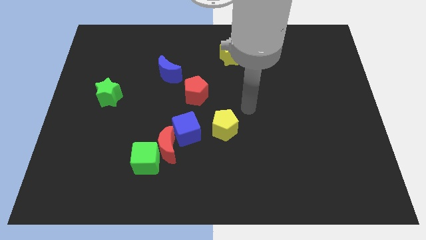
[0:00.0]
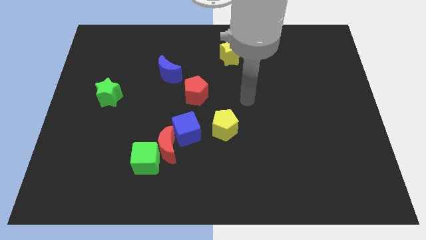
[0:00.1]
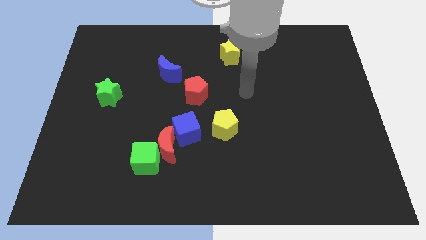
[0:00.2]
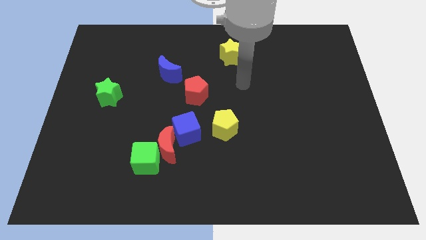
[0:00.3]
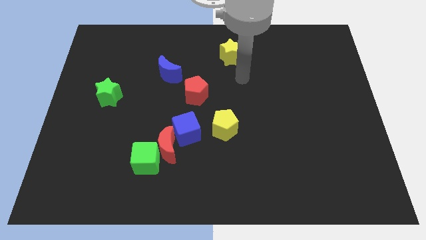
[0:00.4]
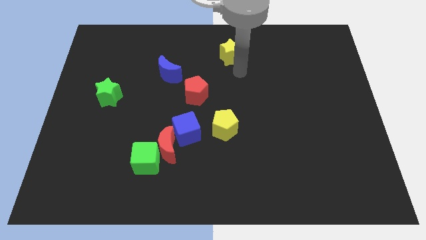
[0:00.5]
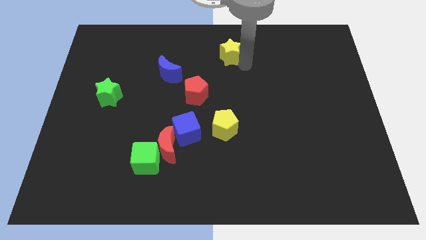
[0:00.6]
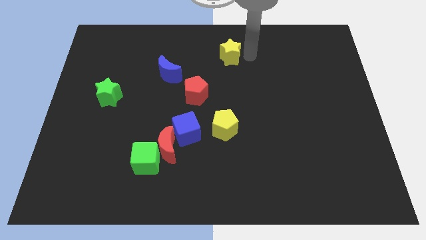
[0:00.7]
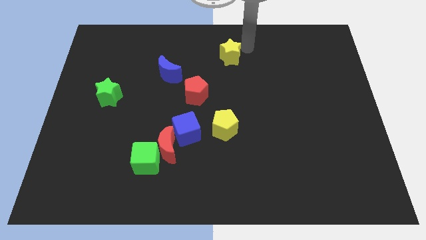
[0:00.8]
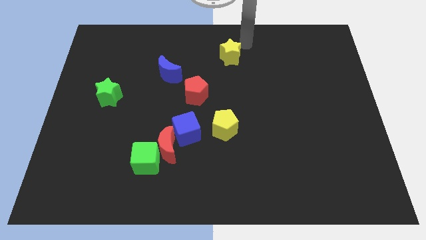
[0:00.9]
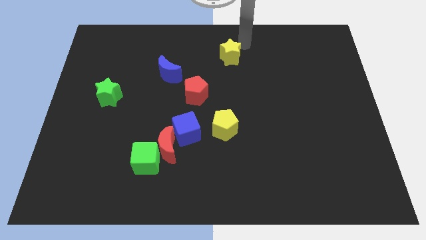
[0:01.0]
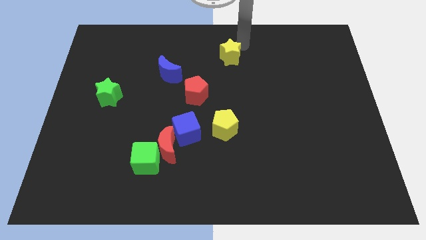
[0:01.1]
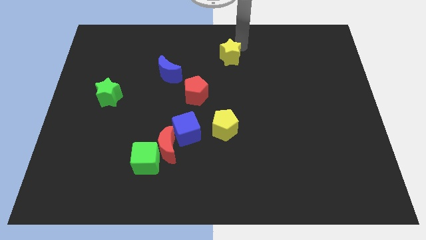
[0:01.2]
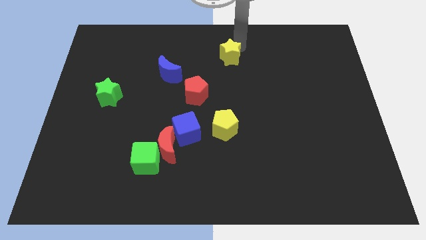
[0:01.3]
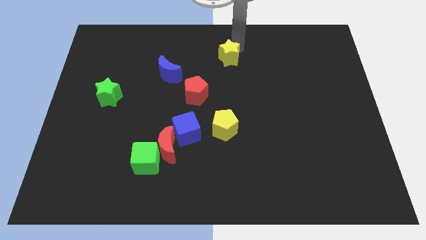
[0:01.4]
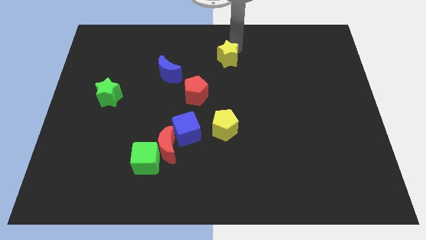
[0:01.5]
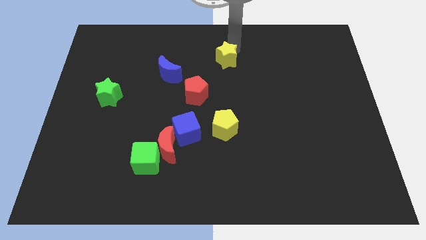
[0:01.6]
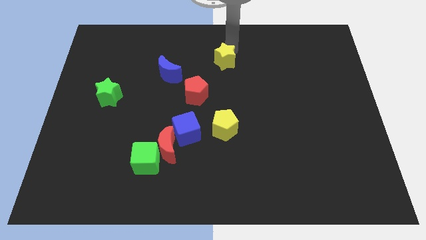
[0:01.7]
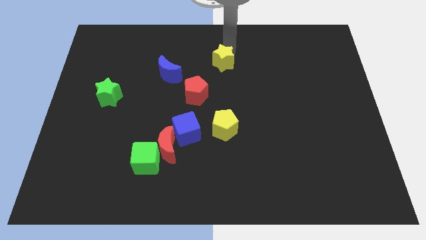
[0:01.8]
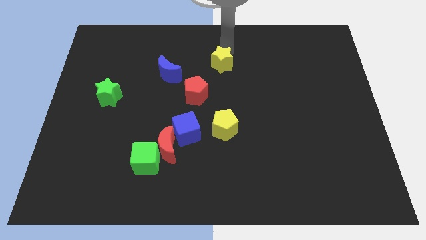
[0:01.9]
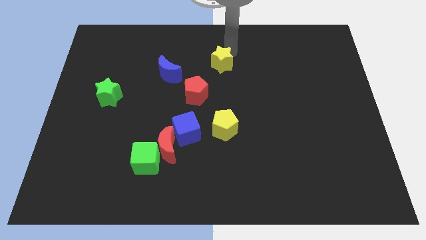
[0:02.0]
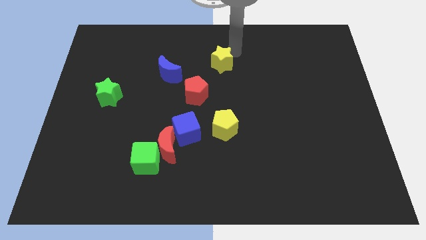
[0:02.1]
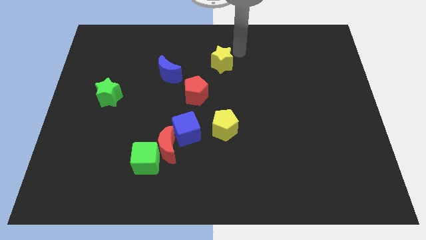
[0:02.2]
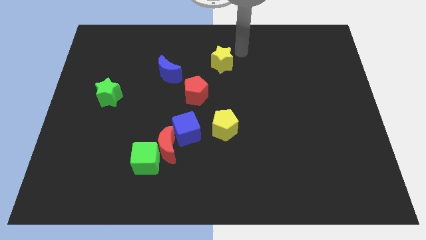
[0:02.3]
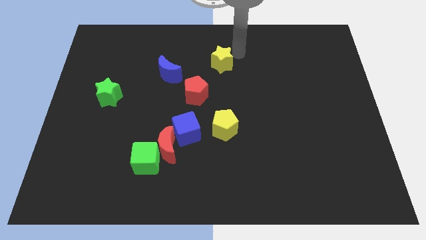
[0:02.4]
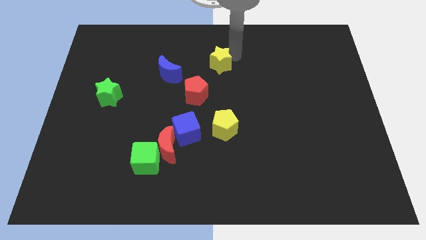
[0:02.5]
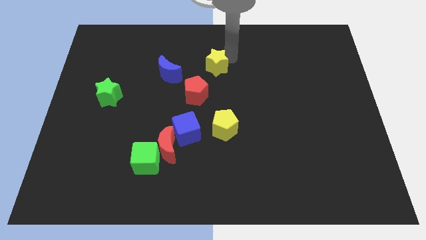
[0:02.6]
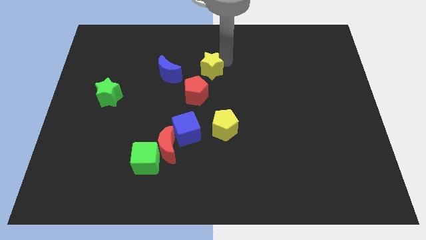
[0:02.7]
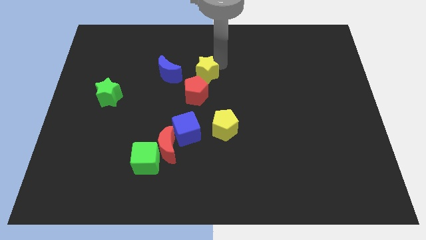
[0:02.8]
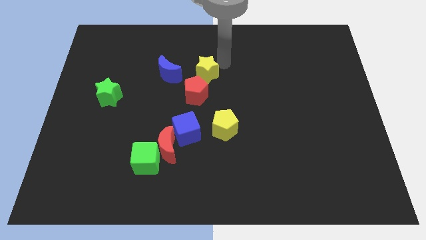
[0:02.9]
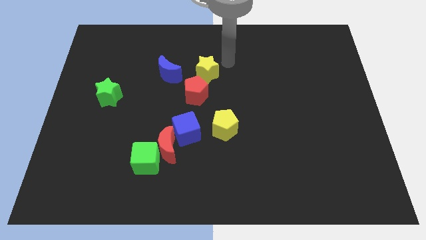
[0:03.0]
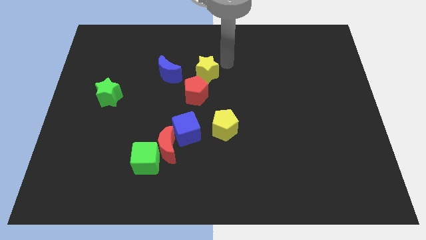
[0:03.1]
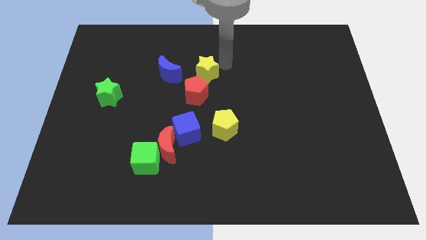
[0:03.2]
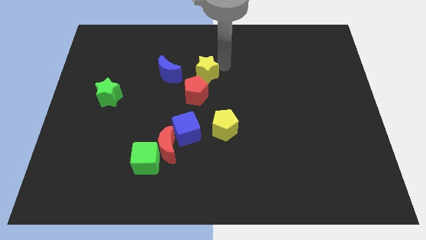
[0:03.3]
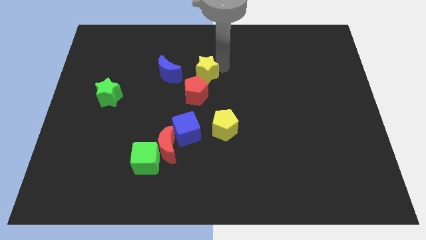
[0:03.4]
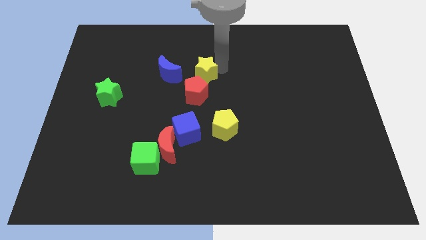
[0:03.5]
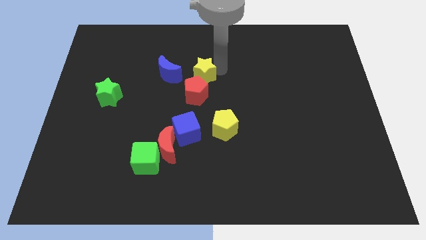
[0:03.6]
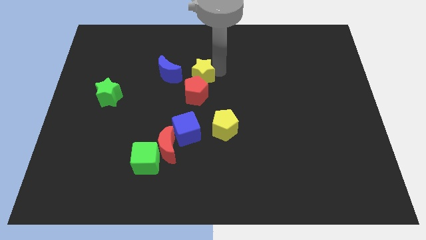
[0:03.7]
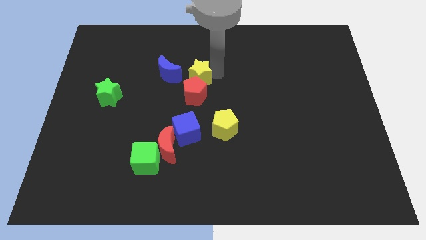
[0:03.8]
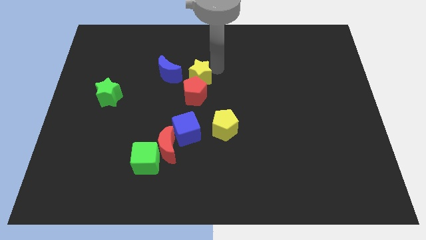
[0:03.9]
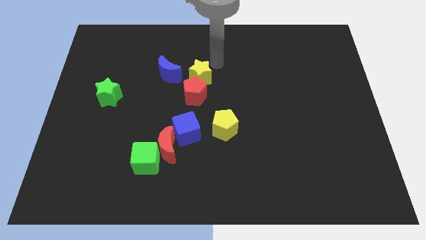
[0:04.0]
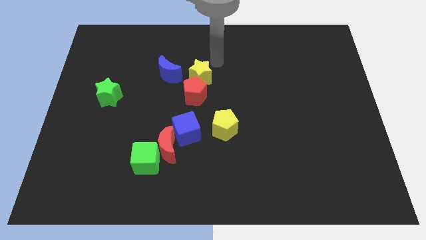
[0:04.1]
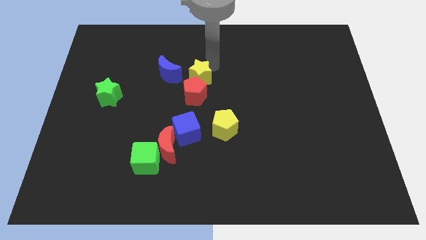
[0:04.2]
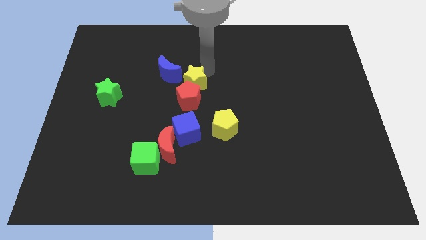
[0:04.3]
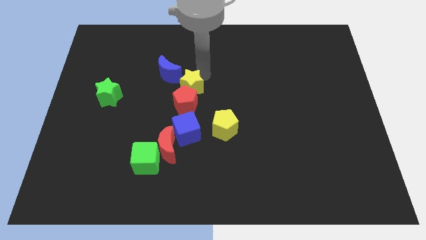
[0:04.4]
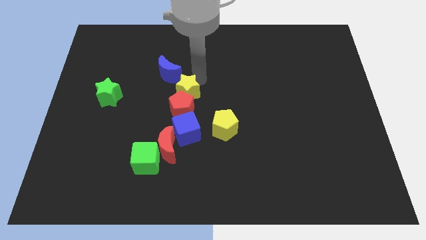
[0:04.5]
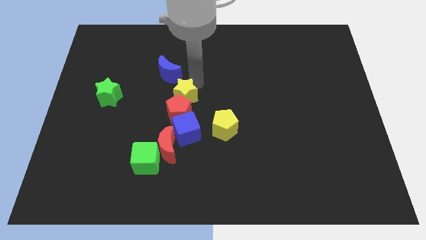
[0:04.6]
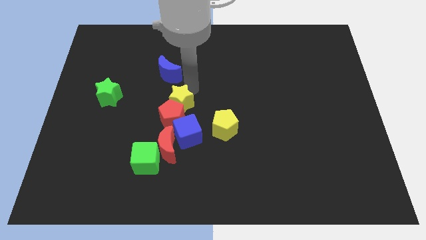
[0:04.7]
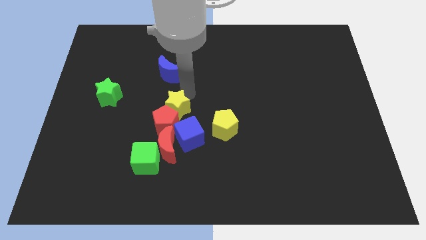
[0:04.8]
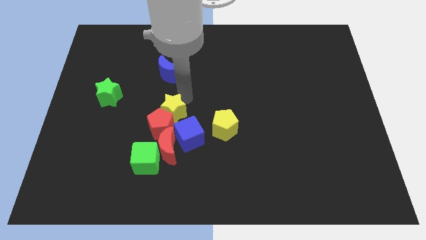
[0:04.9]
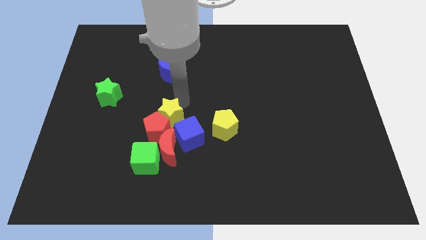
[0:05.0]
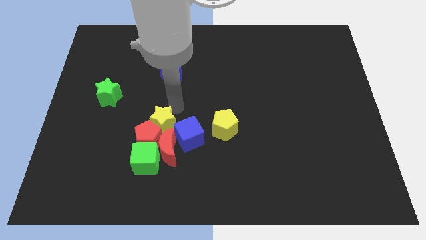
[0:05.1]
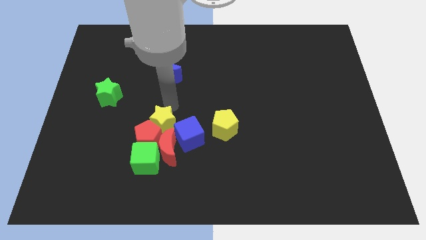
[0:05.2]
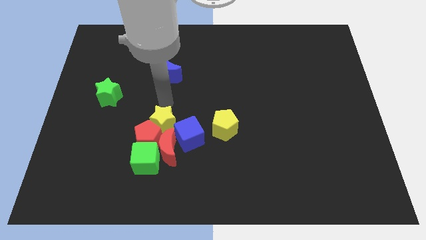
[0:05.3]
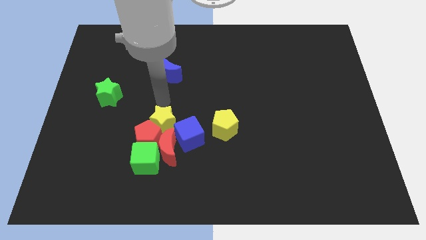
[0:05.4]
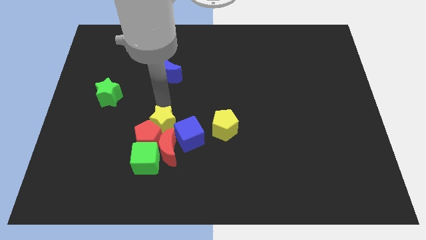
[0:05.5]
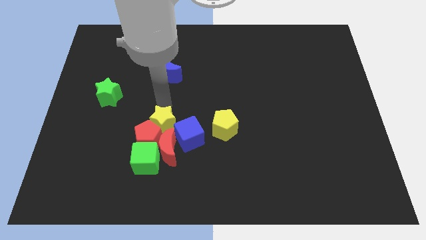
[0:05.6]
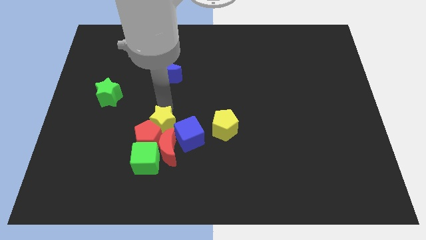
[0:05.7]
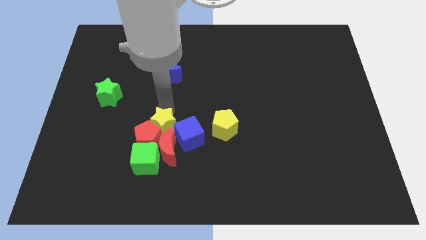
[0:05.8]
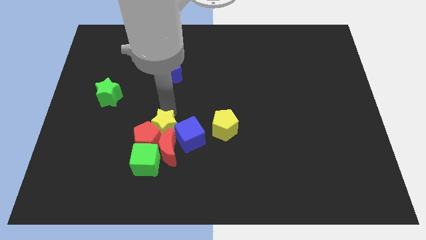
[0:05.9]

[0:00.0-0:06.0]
push the yellow star towards the red moon
